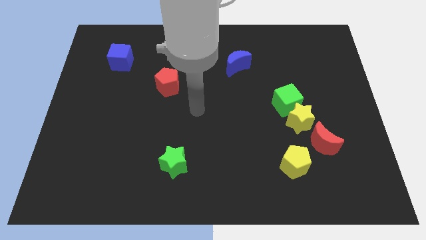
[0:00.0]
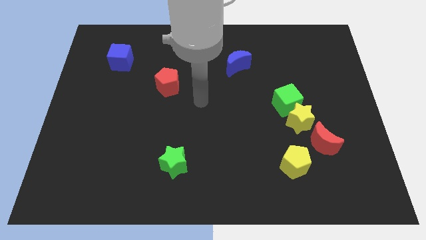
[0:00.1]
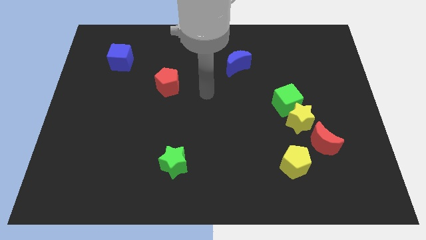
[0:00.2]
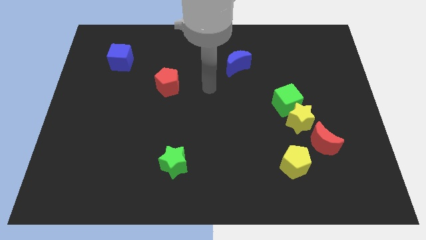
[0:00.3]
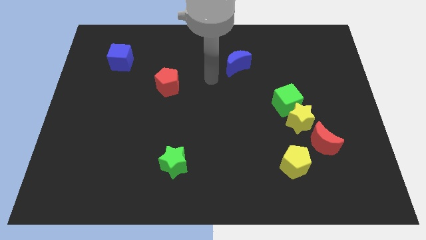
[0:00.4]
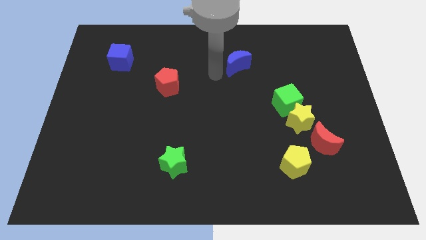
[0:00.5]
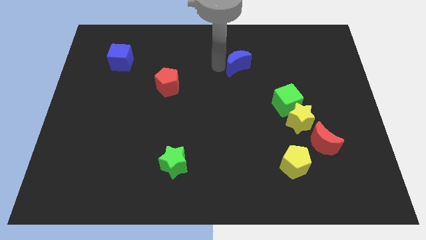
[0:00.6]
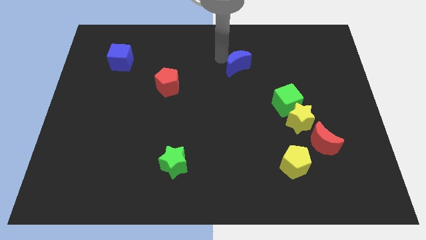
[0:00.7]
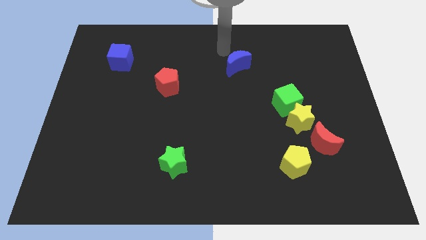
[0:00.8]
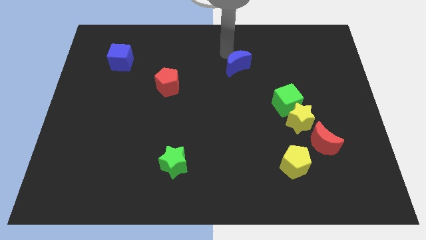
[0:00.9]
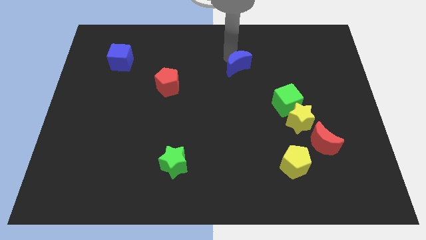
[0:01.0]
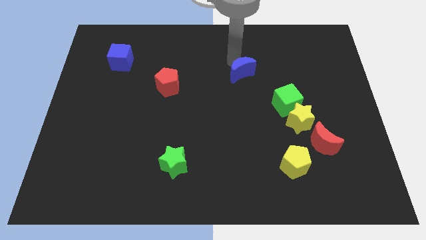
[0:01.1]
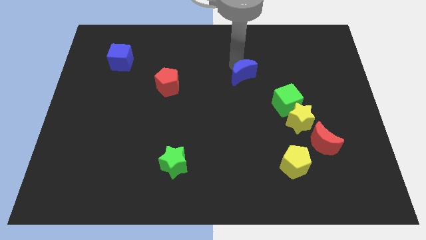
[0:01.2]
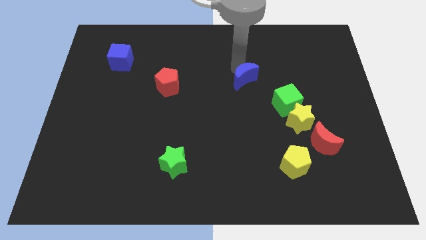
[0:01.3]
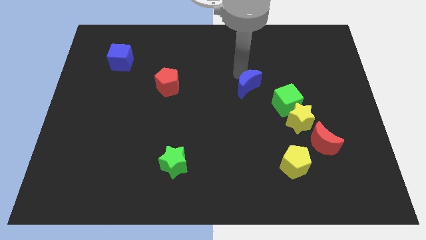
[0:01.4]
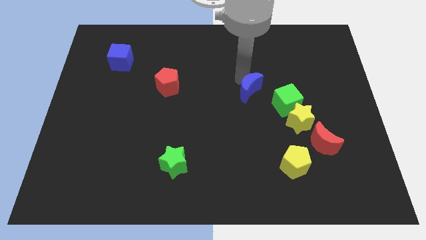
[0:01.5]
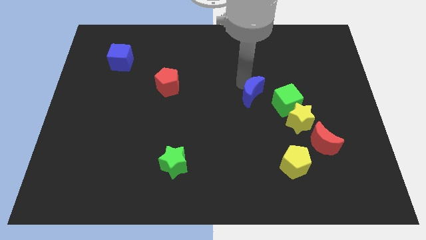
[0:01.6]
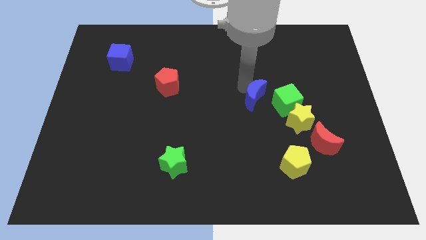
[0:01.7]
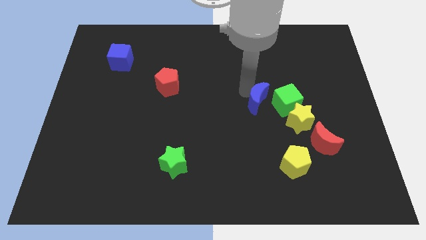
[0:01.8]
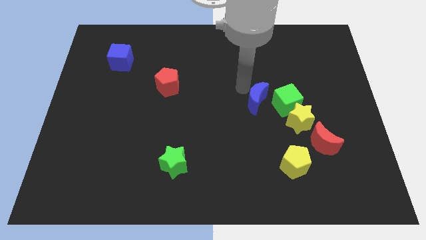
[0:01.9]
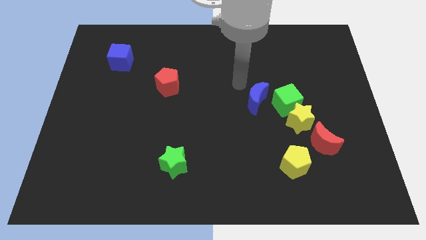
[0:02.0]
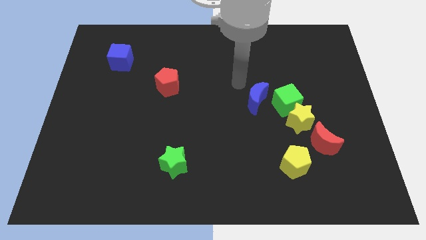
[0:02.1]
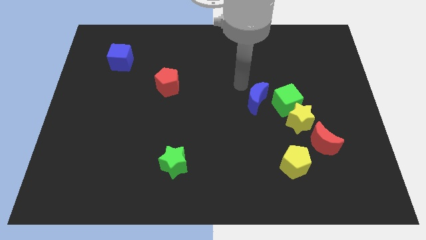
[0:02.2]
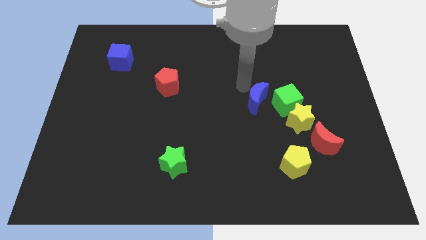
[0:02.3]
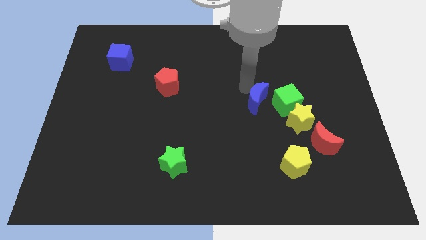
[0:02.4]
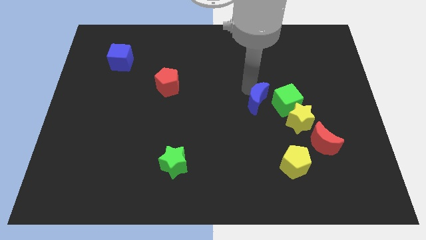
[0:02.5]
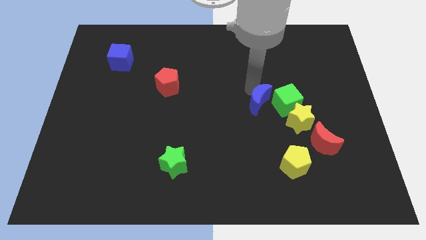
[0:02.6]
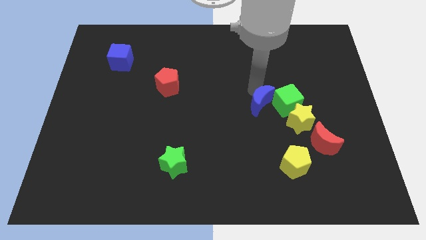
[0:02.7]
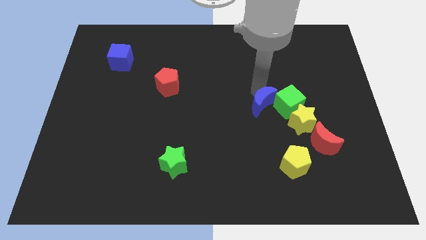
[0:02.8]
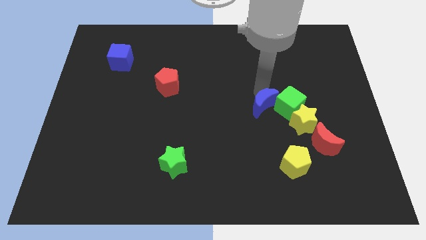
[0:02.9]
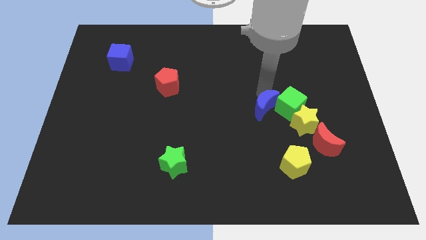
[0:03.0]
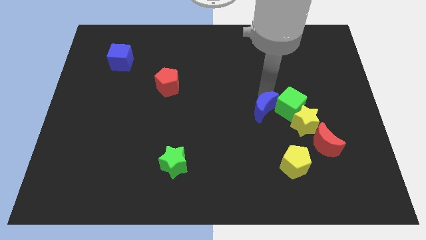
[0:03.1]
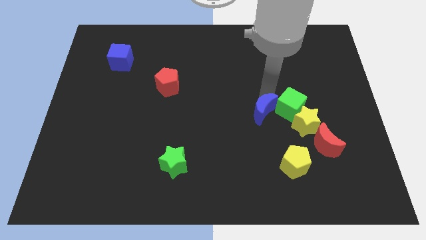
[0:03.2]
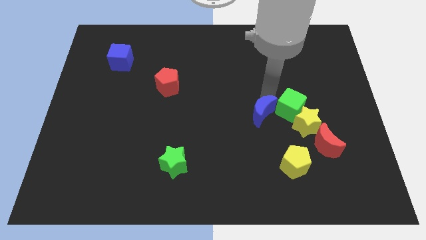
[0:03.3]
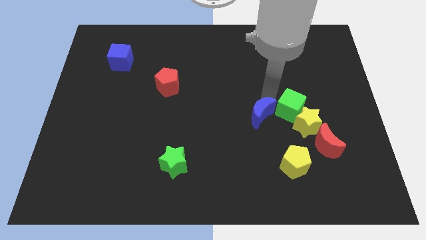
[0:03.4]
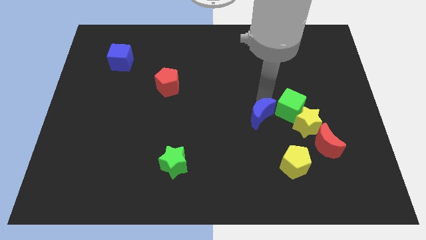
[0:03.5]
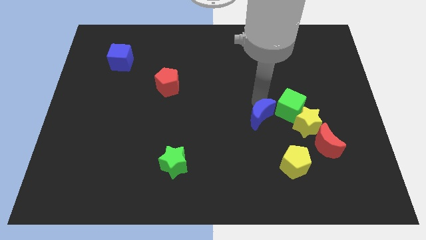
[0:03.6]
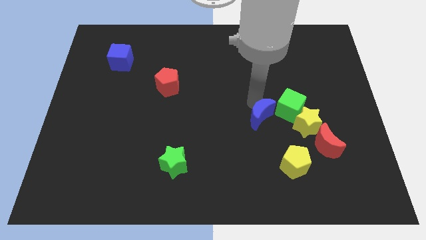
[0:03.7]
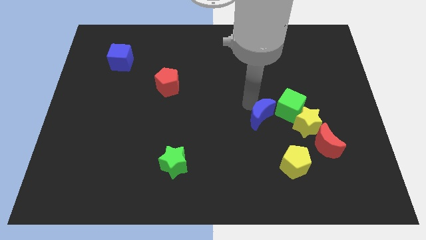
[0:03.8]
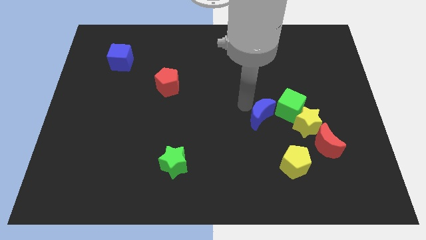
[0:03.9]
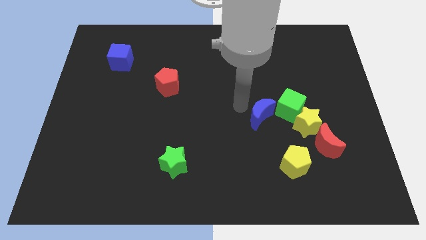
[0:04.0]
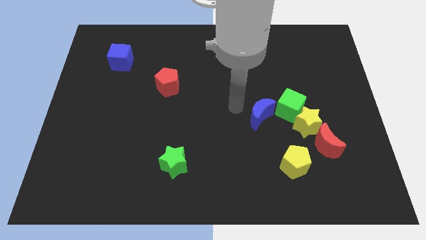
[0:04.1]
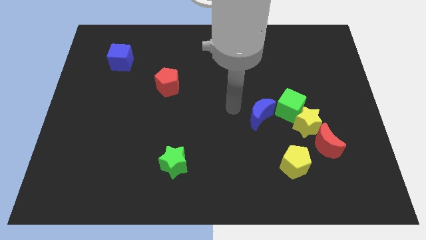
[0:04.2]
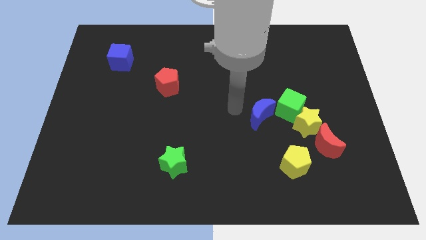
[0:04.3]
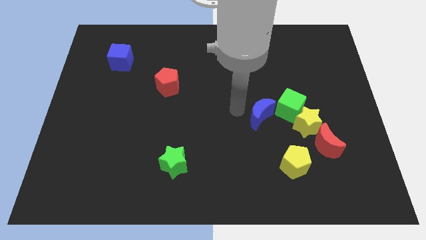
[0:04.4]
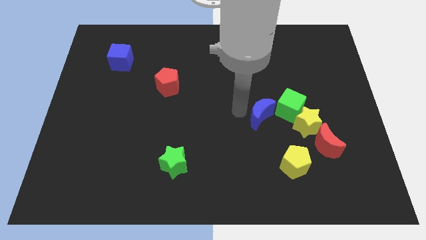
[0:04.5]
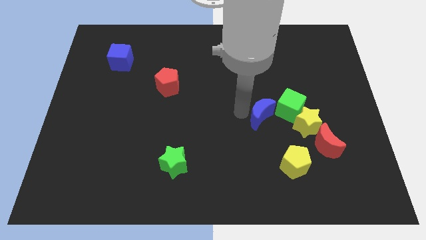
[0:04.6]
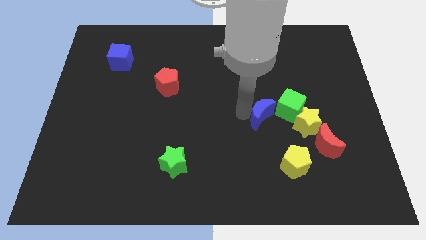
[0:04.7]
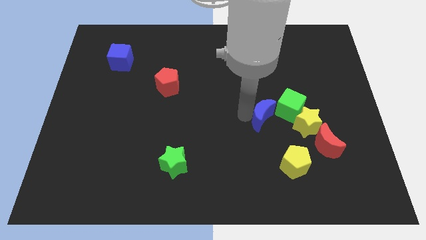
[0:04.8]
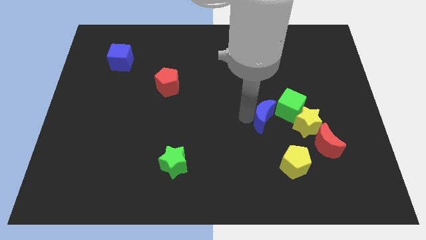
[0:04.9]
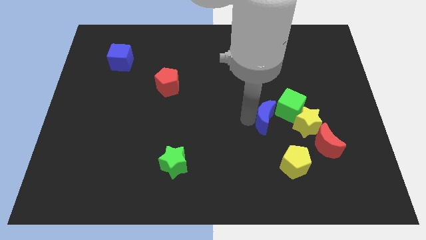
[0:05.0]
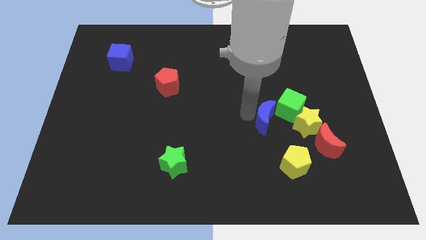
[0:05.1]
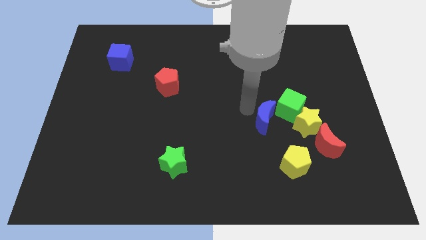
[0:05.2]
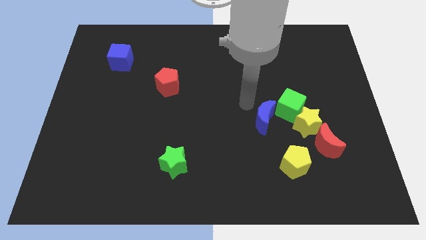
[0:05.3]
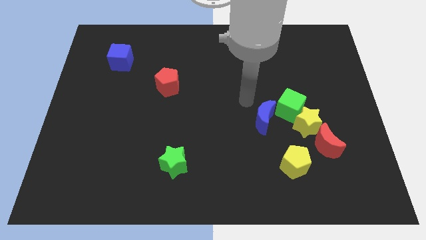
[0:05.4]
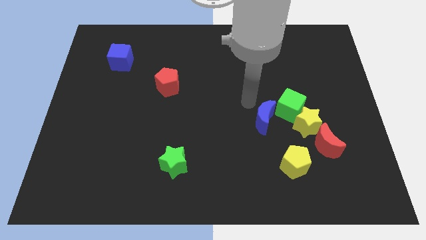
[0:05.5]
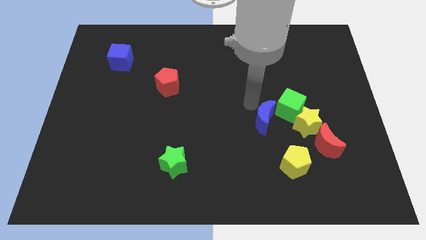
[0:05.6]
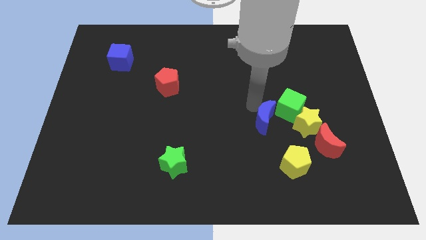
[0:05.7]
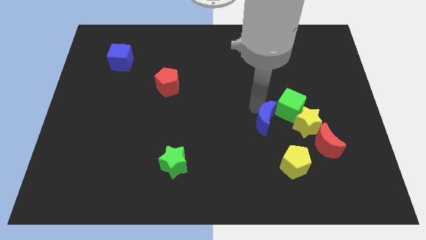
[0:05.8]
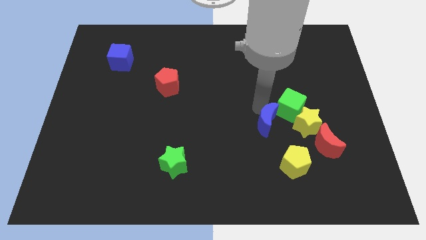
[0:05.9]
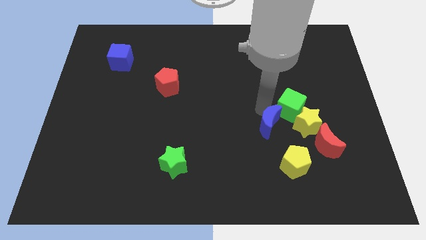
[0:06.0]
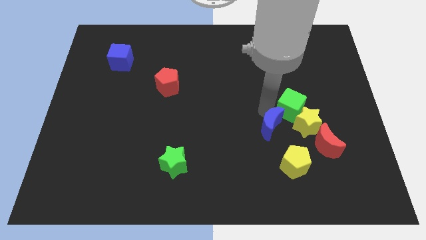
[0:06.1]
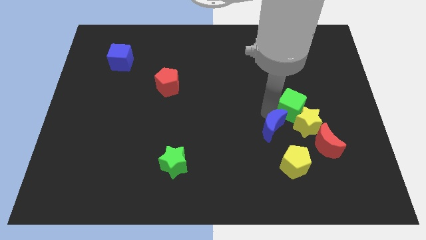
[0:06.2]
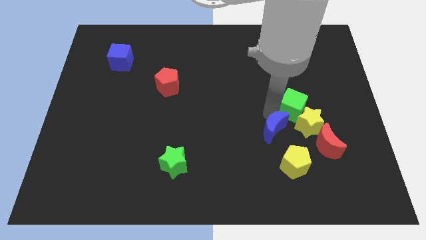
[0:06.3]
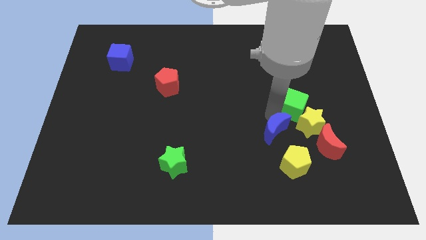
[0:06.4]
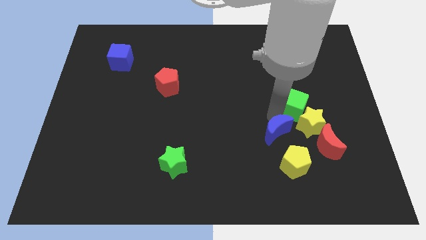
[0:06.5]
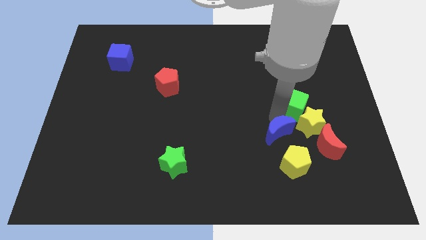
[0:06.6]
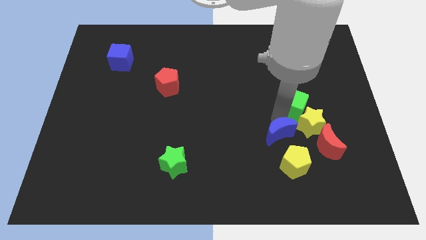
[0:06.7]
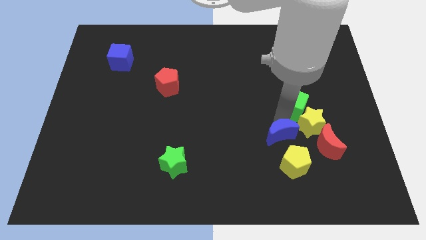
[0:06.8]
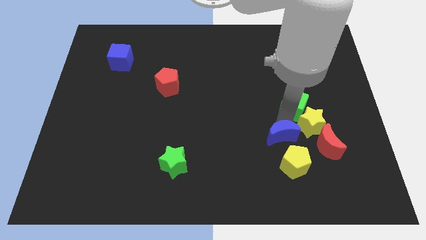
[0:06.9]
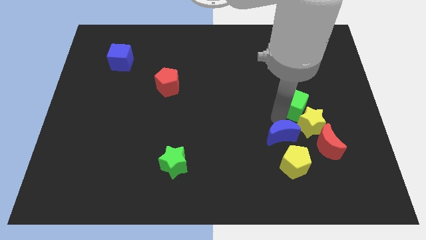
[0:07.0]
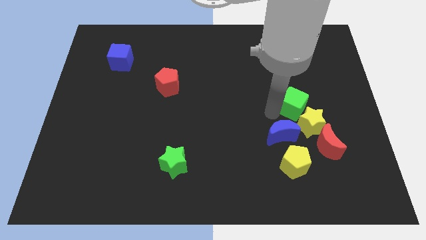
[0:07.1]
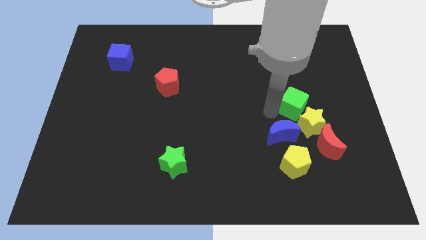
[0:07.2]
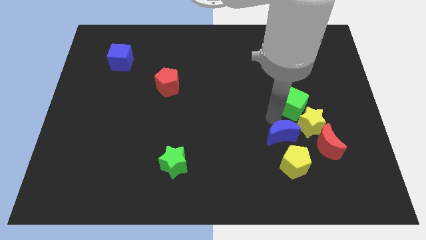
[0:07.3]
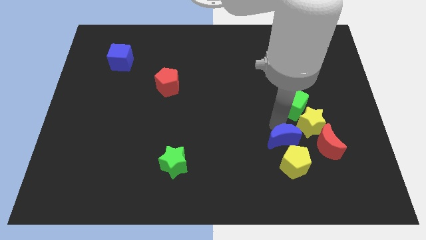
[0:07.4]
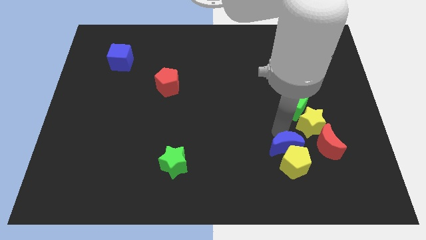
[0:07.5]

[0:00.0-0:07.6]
put the blue moon close to the yellow pentagon

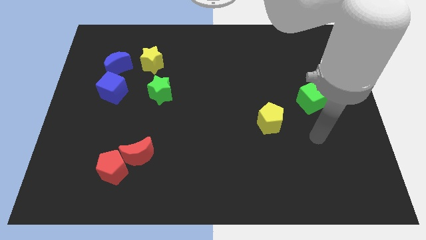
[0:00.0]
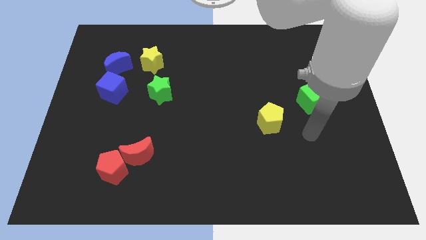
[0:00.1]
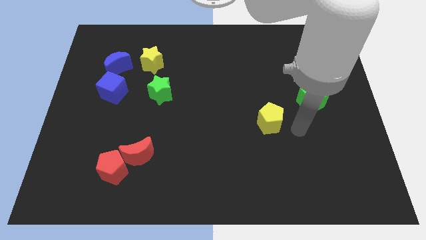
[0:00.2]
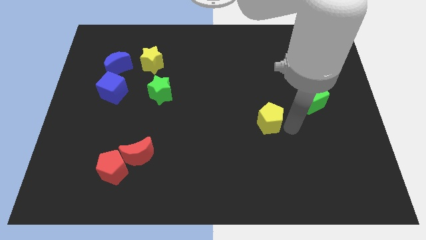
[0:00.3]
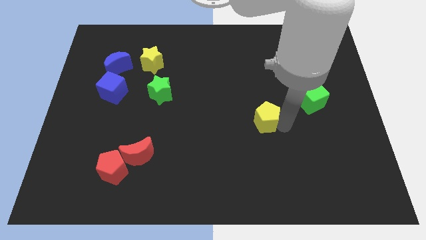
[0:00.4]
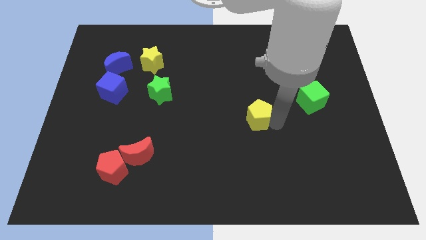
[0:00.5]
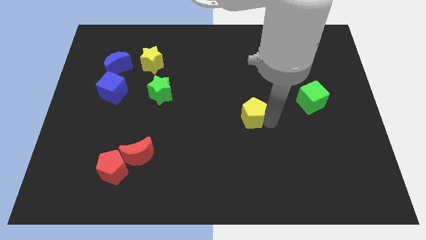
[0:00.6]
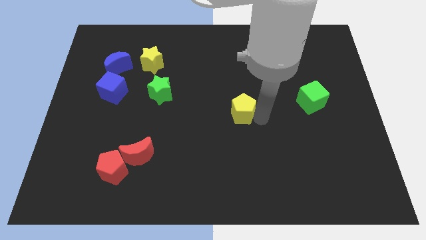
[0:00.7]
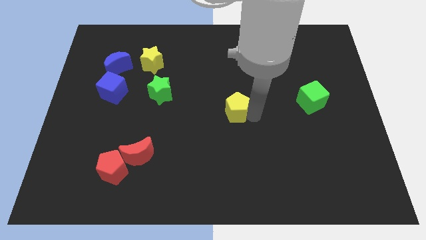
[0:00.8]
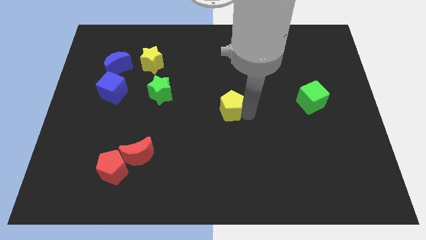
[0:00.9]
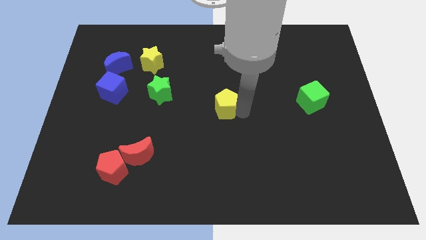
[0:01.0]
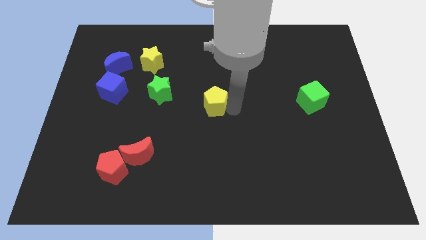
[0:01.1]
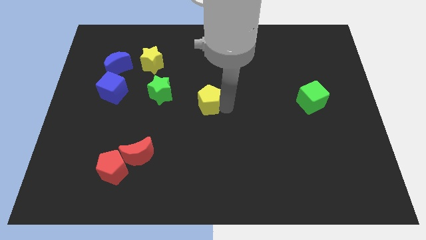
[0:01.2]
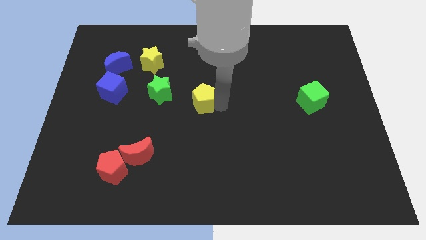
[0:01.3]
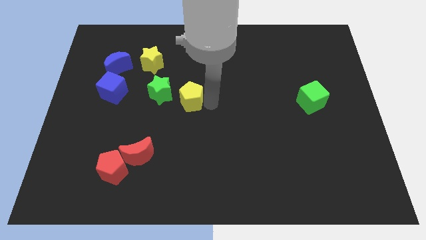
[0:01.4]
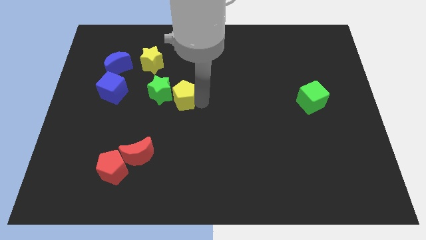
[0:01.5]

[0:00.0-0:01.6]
push the yellow pentagon close to the green star
